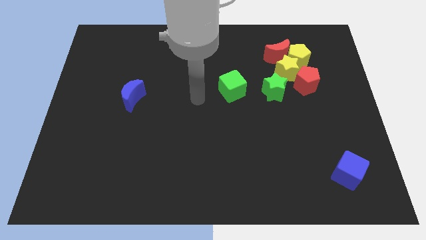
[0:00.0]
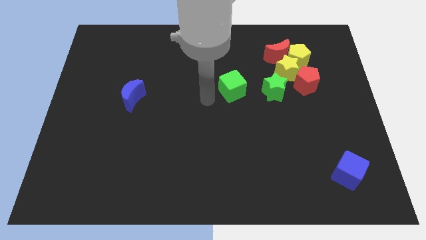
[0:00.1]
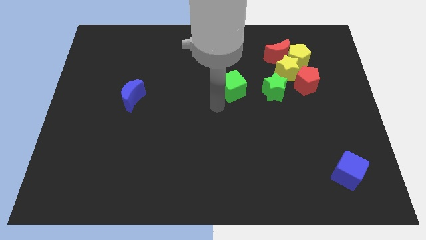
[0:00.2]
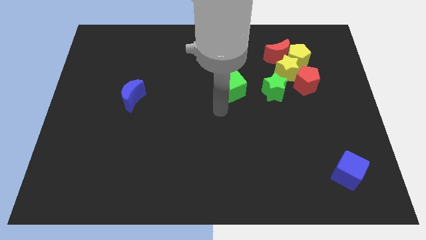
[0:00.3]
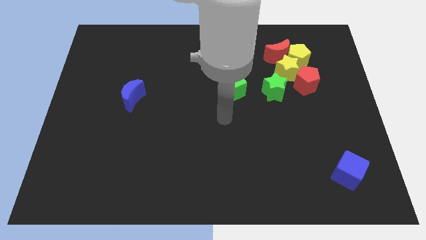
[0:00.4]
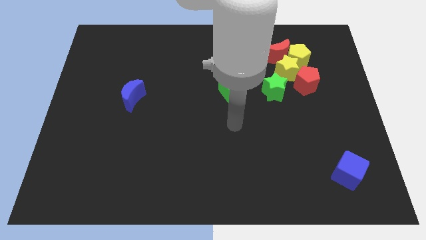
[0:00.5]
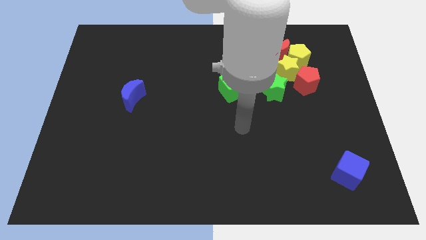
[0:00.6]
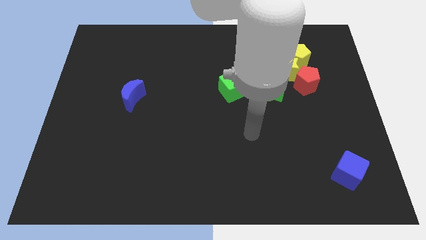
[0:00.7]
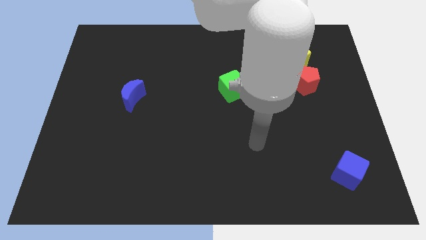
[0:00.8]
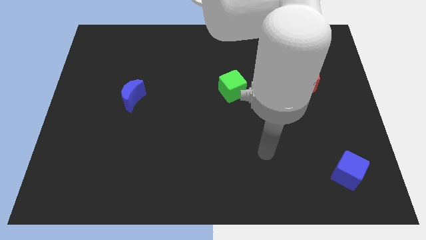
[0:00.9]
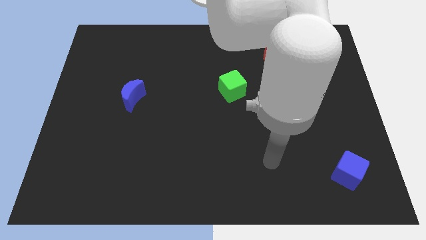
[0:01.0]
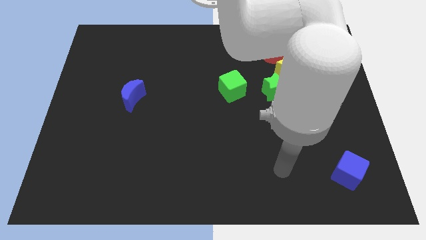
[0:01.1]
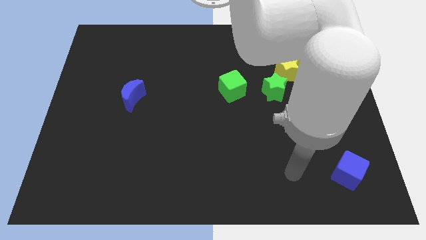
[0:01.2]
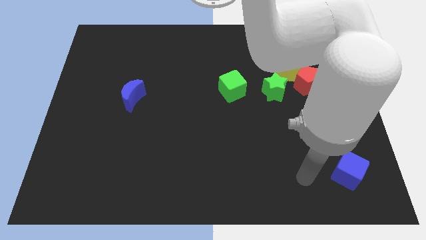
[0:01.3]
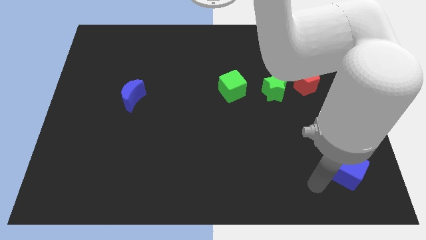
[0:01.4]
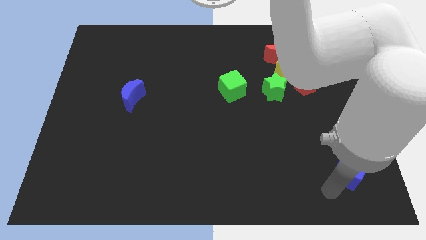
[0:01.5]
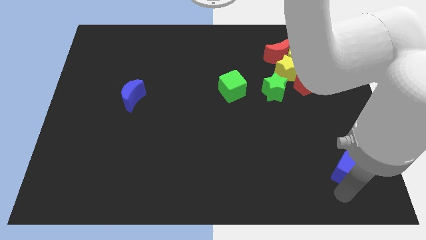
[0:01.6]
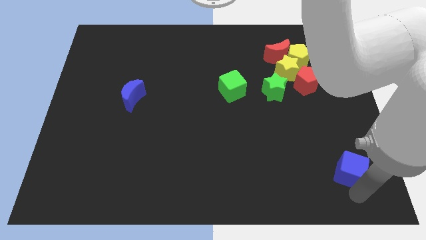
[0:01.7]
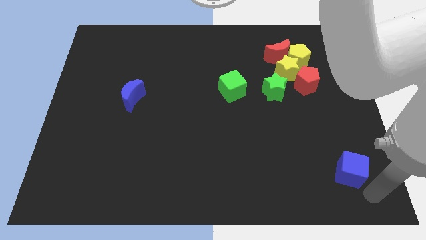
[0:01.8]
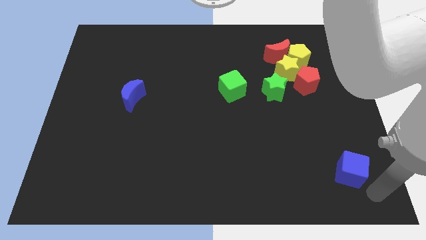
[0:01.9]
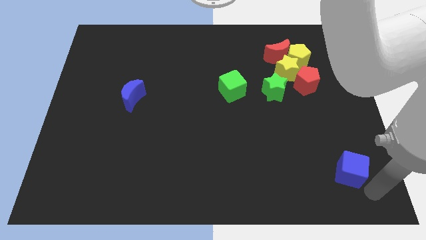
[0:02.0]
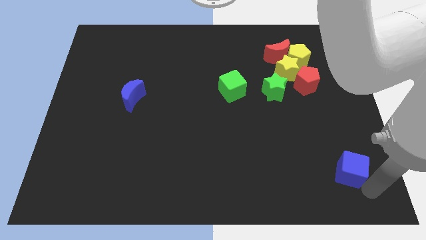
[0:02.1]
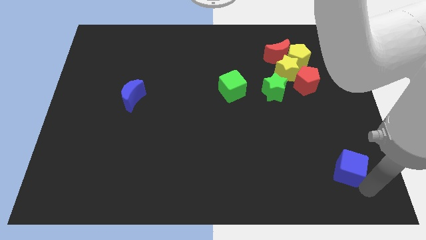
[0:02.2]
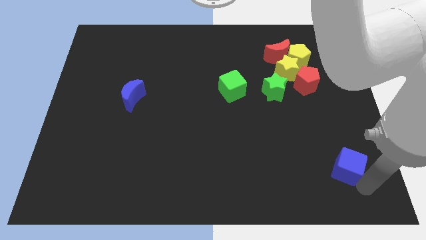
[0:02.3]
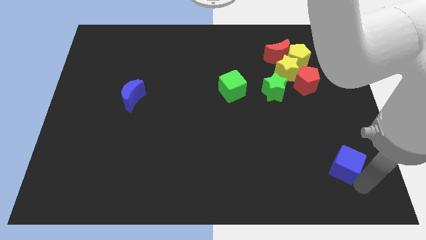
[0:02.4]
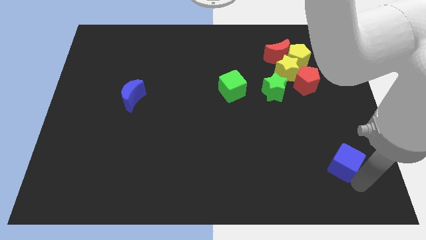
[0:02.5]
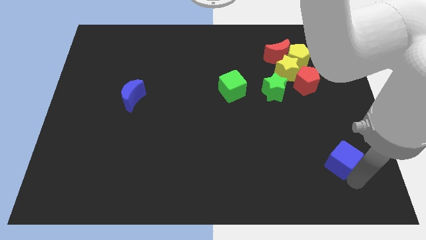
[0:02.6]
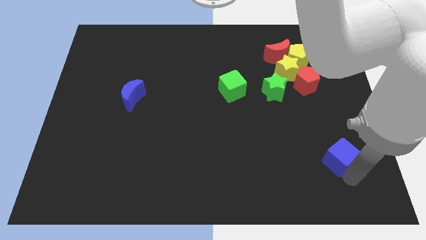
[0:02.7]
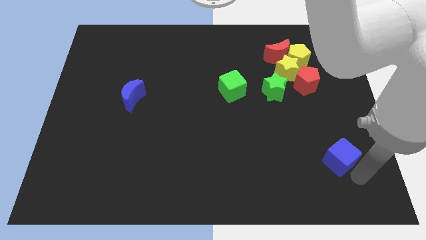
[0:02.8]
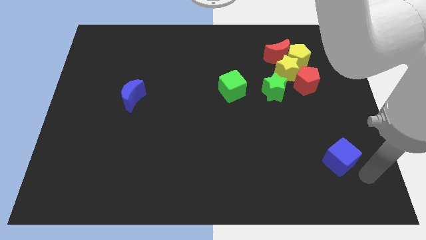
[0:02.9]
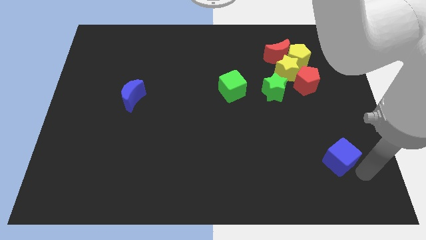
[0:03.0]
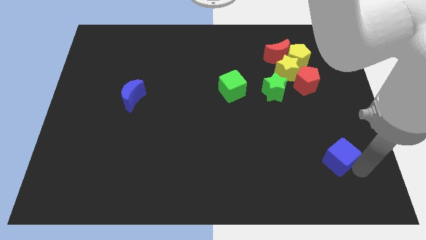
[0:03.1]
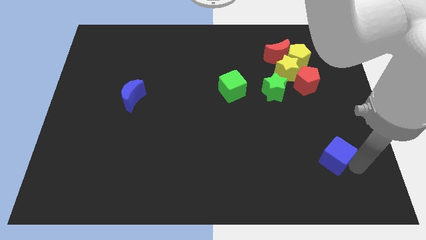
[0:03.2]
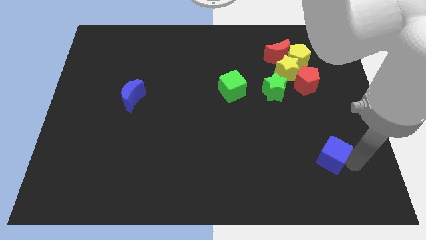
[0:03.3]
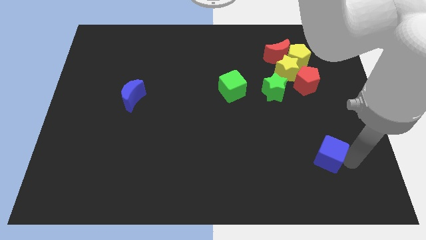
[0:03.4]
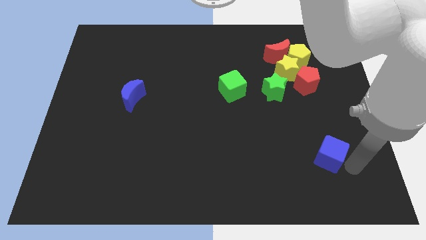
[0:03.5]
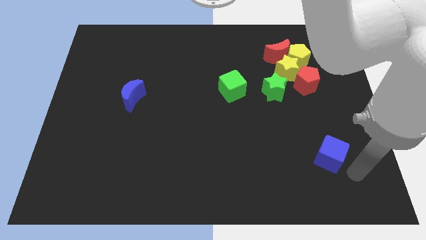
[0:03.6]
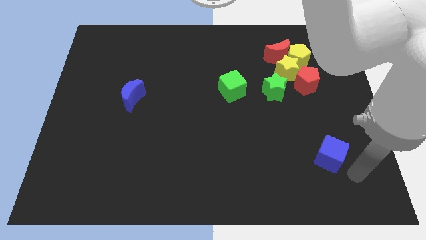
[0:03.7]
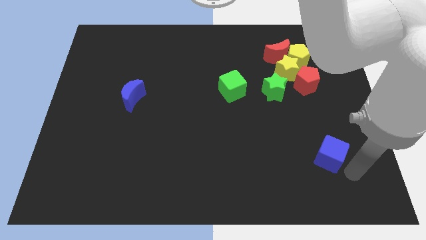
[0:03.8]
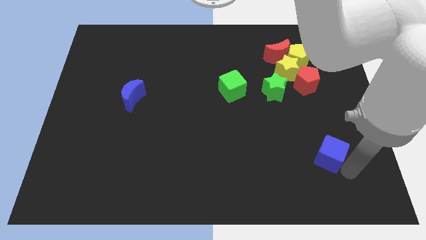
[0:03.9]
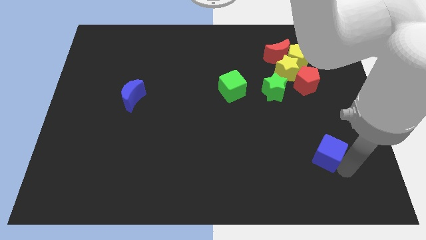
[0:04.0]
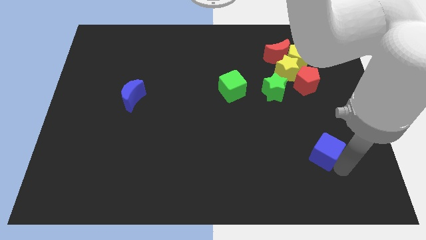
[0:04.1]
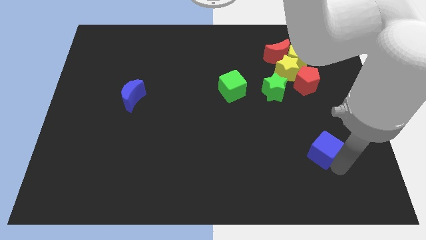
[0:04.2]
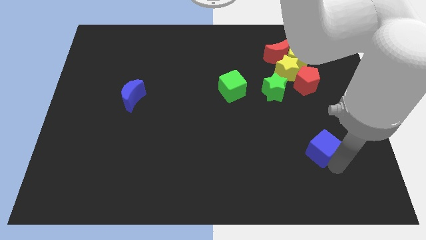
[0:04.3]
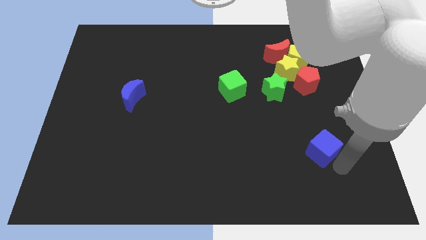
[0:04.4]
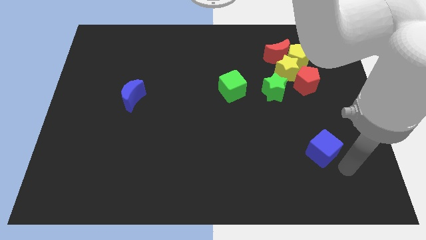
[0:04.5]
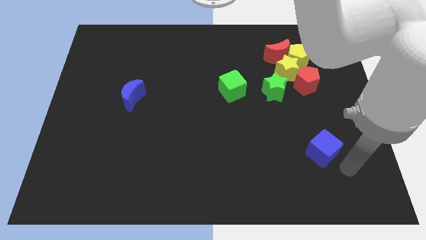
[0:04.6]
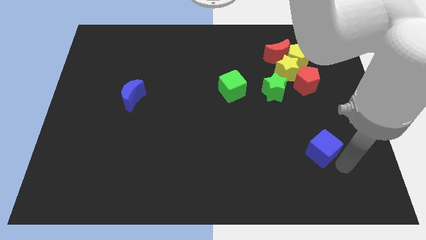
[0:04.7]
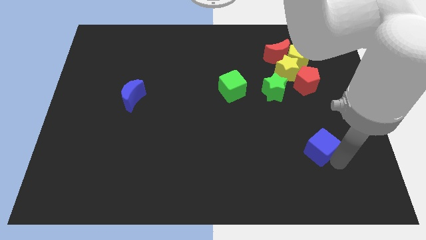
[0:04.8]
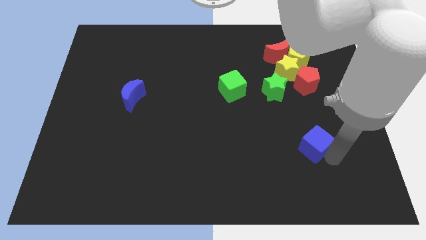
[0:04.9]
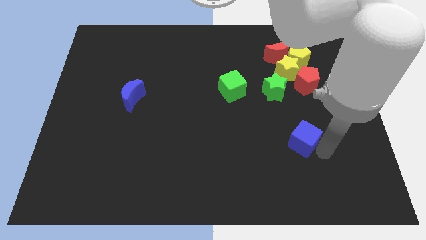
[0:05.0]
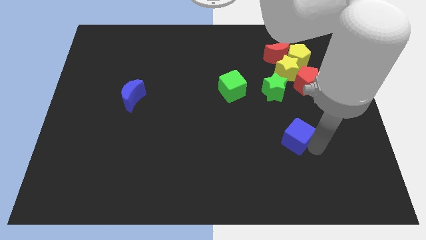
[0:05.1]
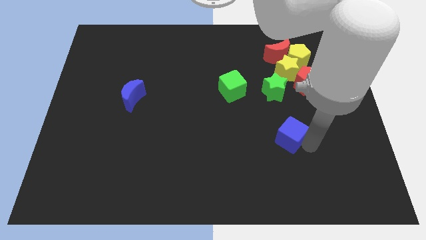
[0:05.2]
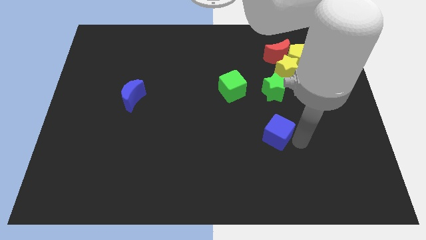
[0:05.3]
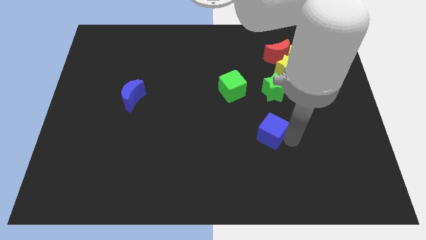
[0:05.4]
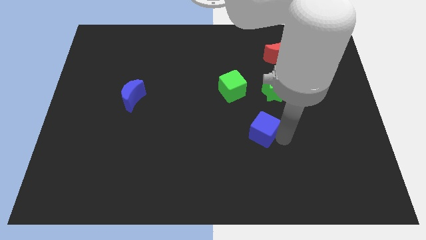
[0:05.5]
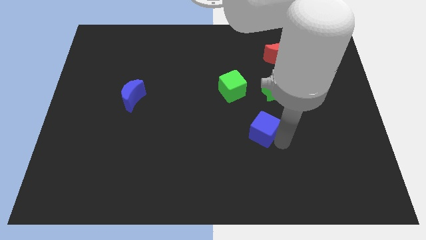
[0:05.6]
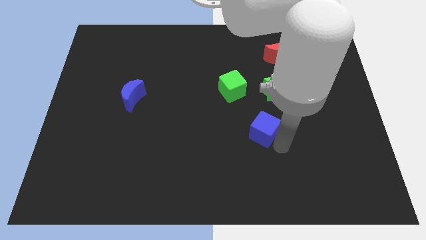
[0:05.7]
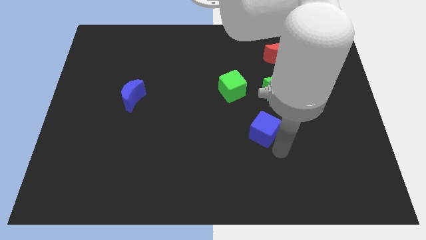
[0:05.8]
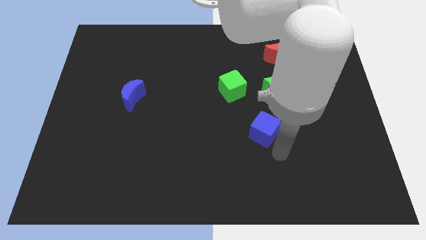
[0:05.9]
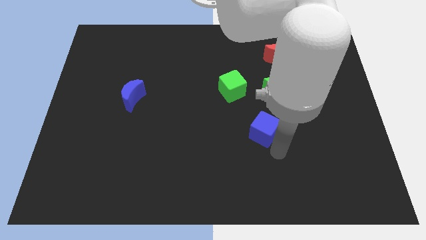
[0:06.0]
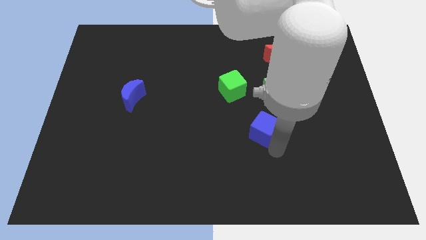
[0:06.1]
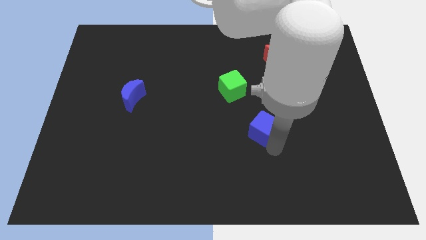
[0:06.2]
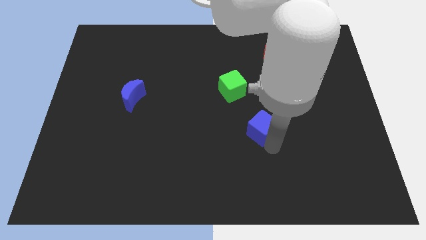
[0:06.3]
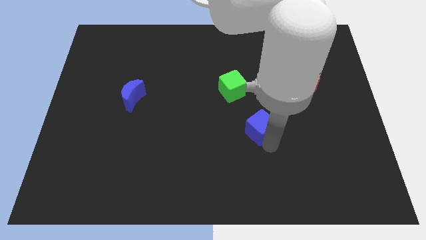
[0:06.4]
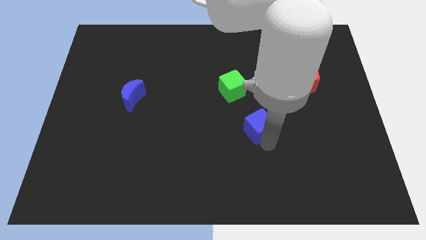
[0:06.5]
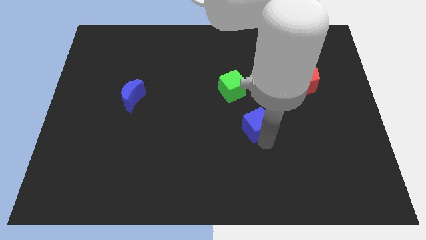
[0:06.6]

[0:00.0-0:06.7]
put the blue cube to the middle of the board
